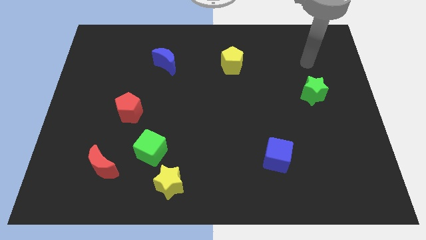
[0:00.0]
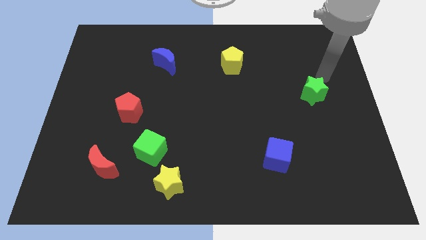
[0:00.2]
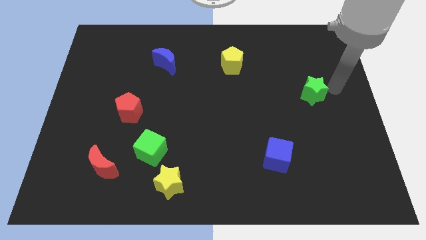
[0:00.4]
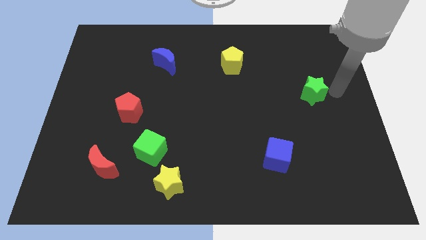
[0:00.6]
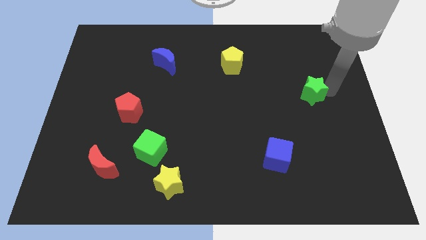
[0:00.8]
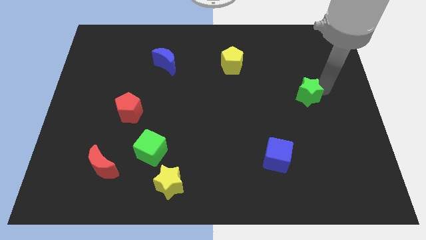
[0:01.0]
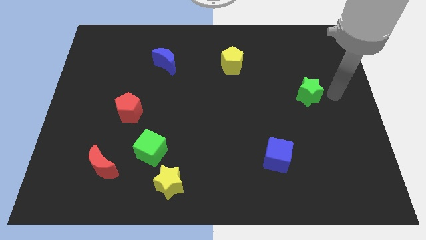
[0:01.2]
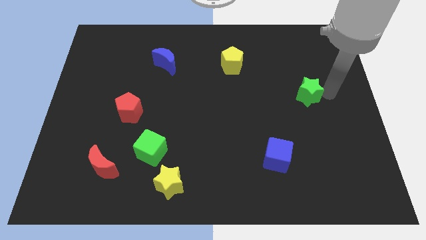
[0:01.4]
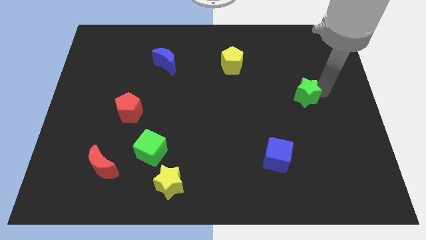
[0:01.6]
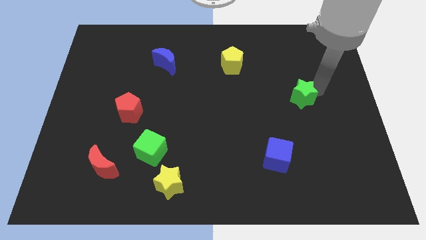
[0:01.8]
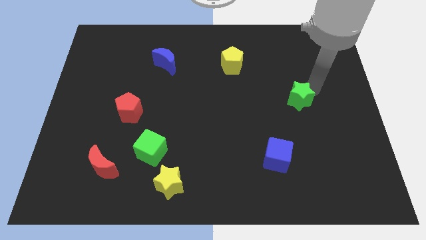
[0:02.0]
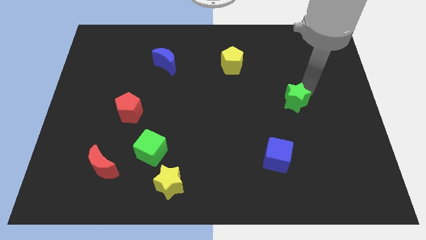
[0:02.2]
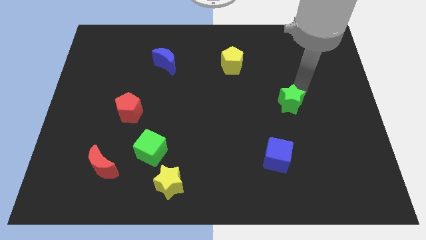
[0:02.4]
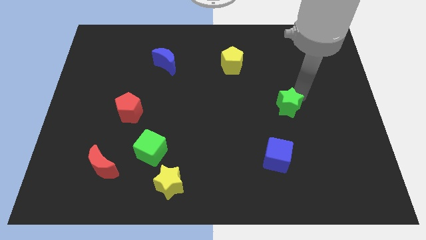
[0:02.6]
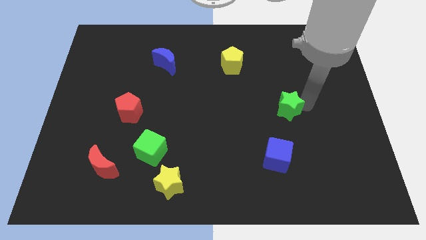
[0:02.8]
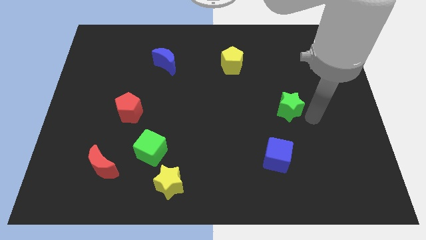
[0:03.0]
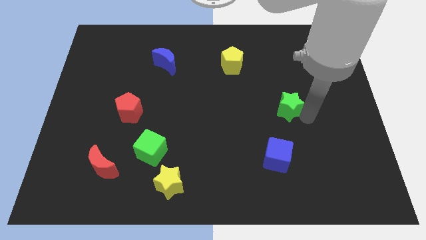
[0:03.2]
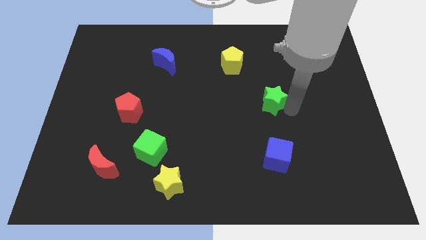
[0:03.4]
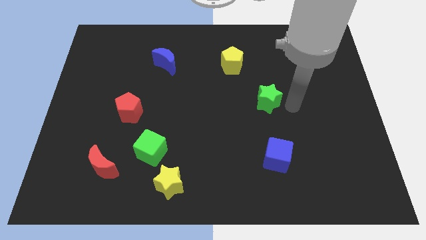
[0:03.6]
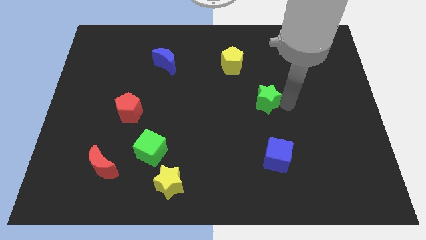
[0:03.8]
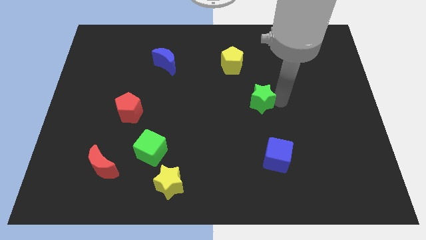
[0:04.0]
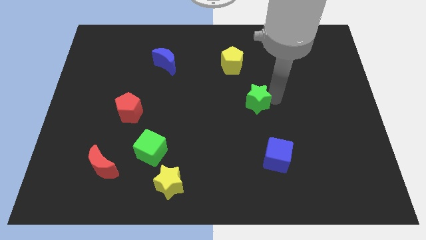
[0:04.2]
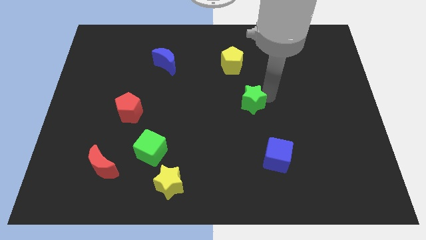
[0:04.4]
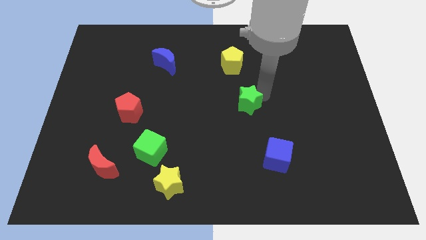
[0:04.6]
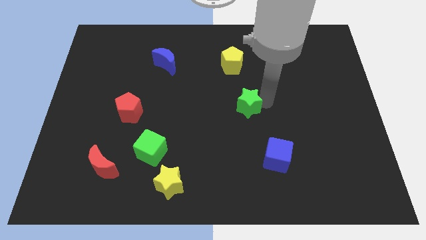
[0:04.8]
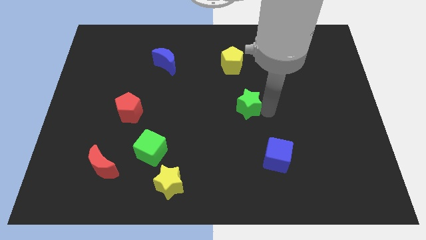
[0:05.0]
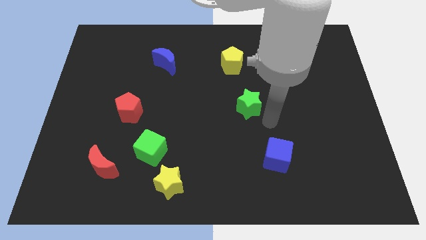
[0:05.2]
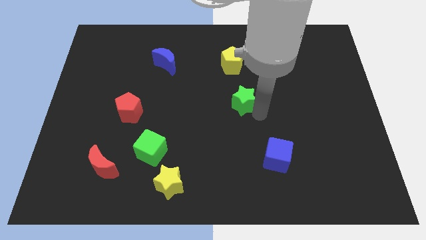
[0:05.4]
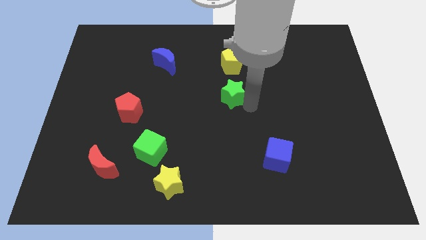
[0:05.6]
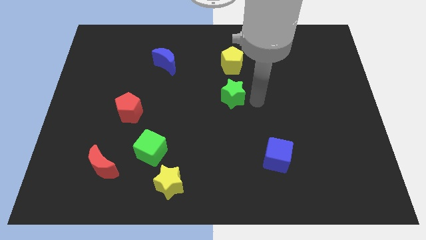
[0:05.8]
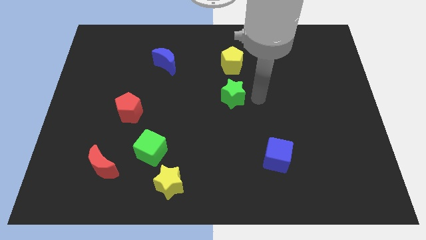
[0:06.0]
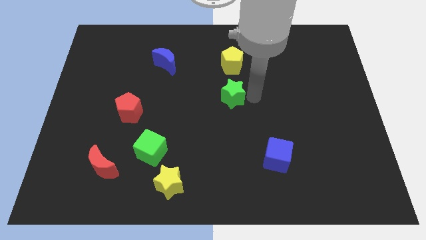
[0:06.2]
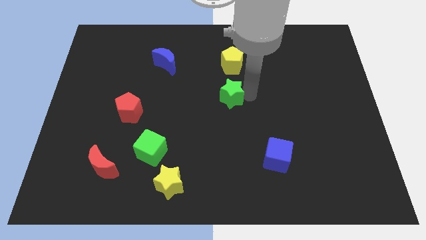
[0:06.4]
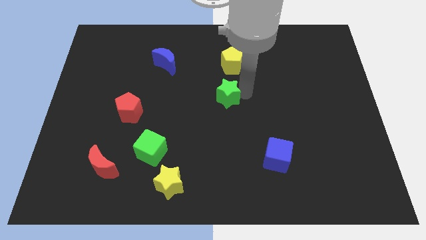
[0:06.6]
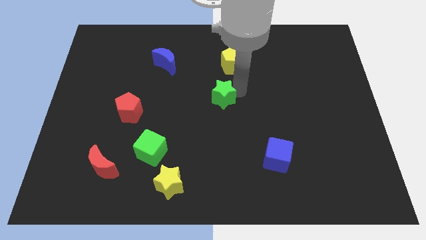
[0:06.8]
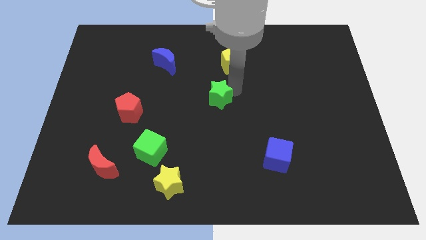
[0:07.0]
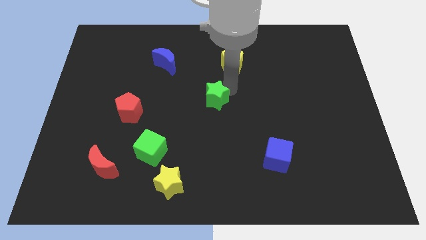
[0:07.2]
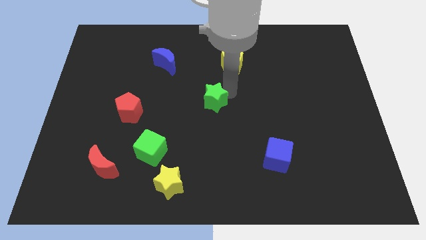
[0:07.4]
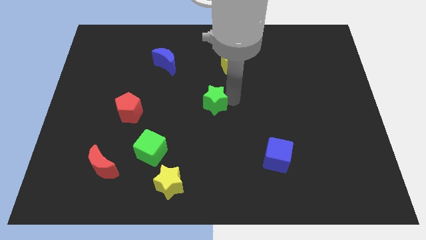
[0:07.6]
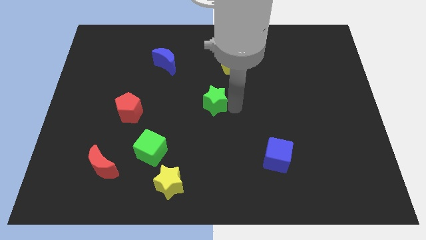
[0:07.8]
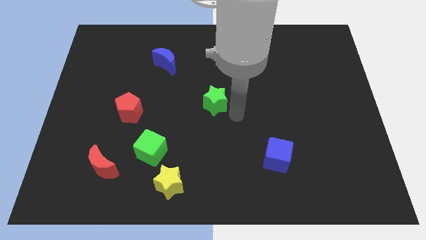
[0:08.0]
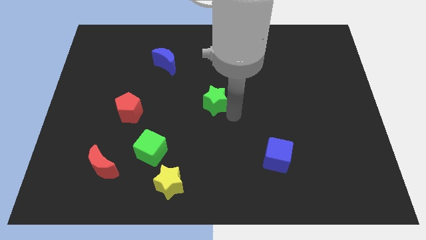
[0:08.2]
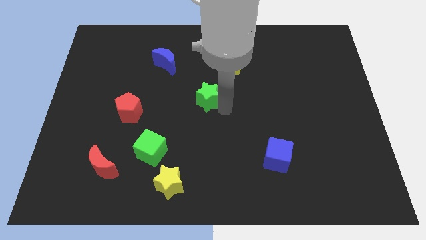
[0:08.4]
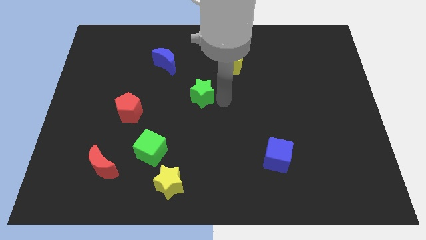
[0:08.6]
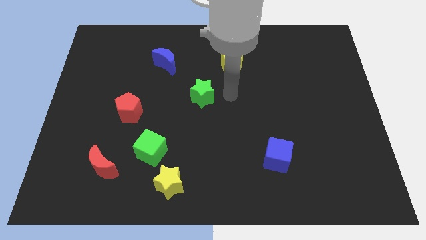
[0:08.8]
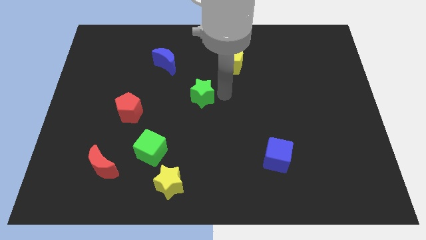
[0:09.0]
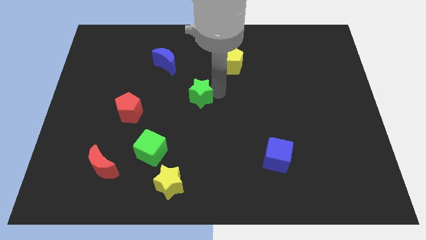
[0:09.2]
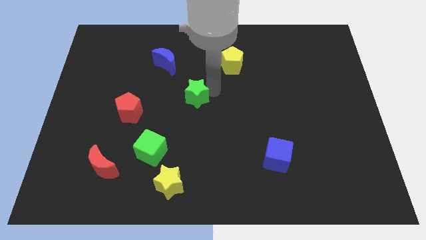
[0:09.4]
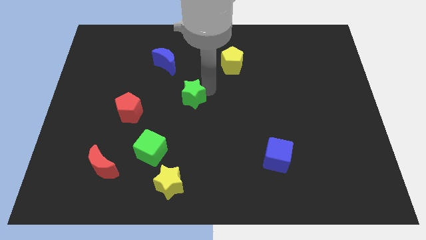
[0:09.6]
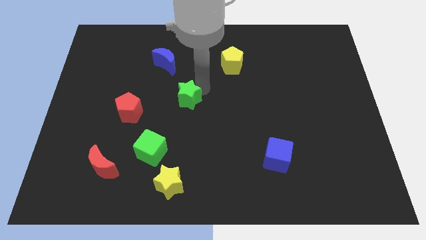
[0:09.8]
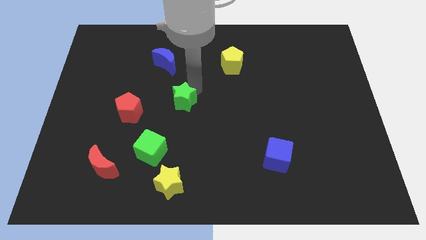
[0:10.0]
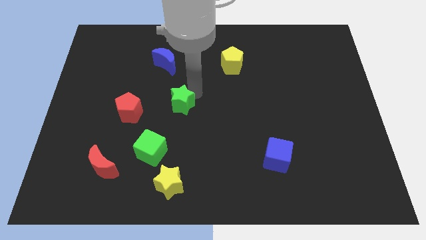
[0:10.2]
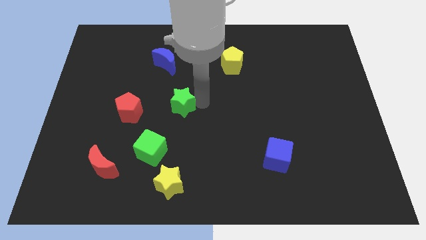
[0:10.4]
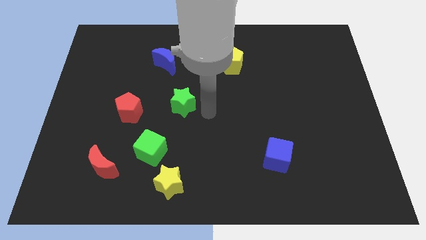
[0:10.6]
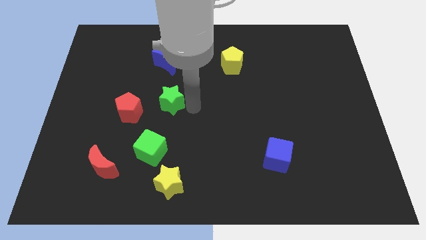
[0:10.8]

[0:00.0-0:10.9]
move the green star diagonally up and to the right of the red pentagon

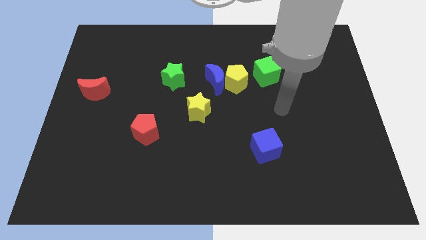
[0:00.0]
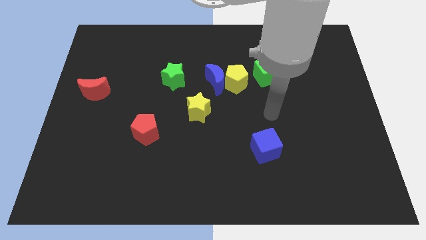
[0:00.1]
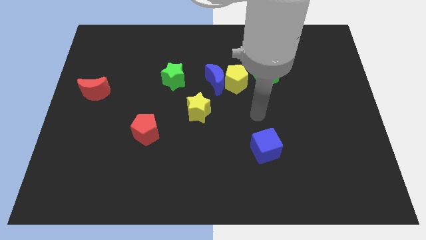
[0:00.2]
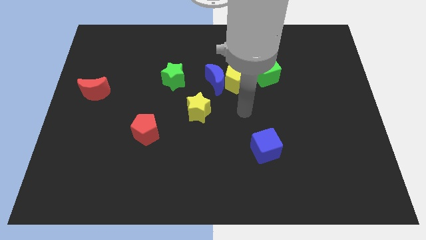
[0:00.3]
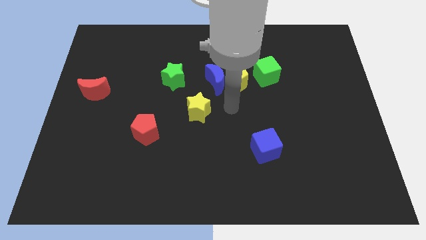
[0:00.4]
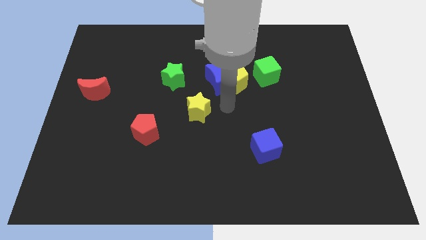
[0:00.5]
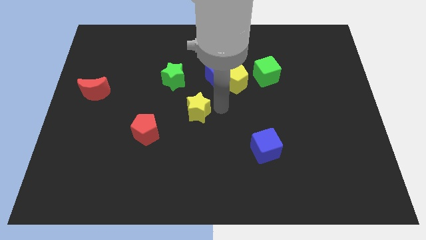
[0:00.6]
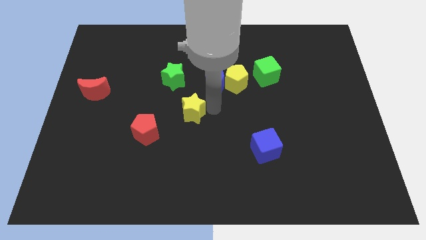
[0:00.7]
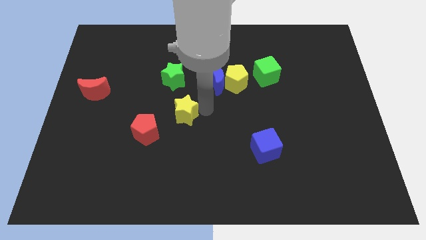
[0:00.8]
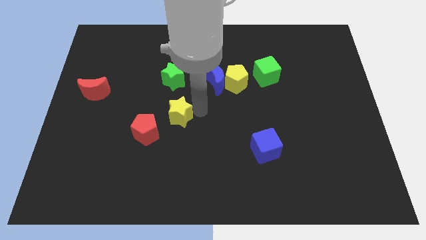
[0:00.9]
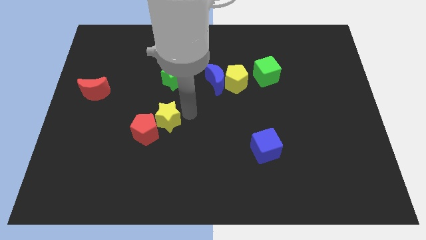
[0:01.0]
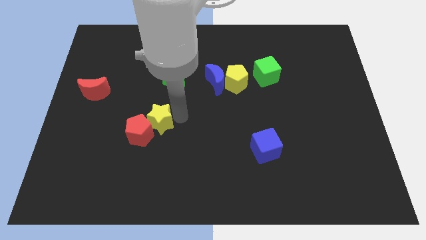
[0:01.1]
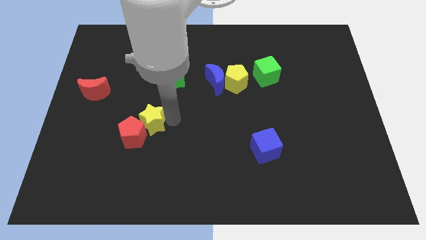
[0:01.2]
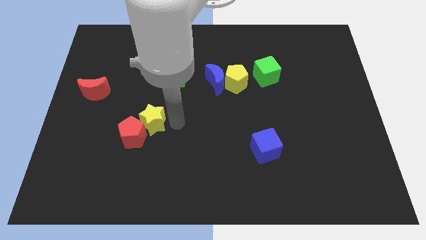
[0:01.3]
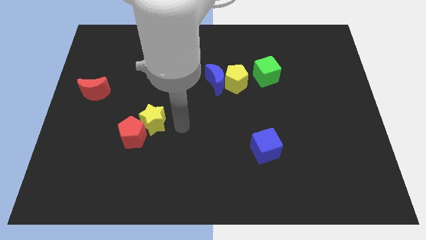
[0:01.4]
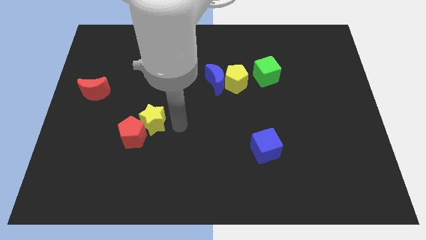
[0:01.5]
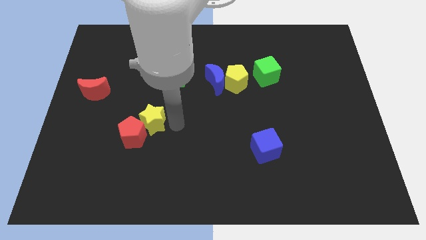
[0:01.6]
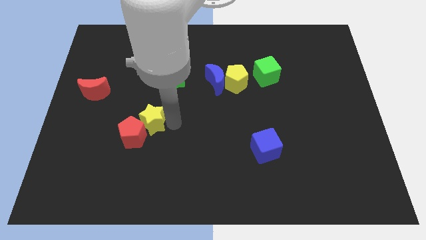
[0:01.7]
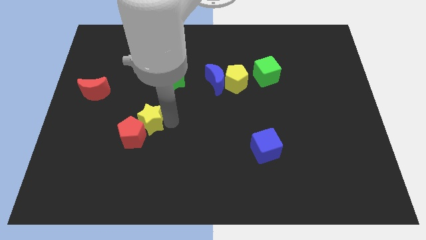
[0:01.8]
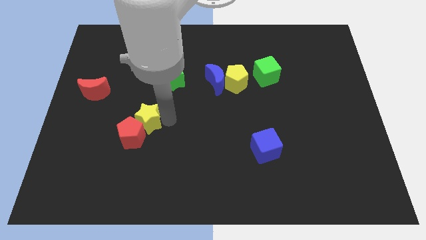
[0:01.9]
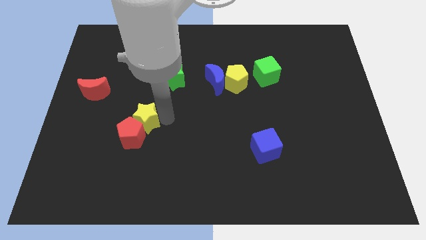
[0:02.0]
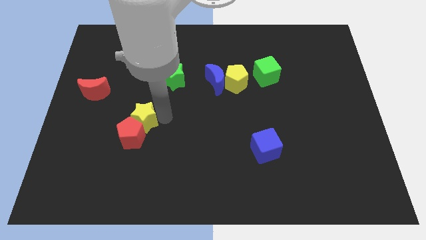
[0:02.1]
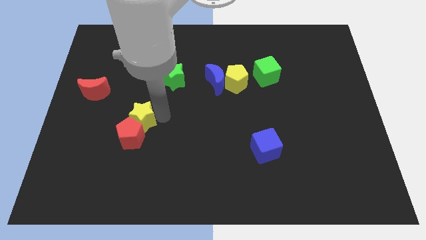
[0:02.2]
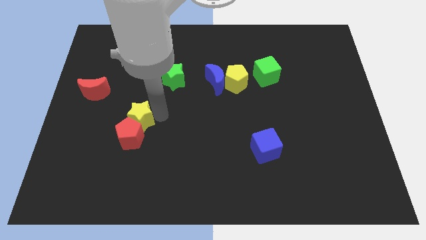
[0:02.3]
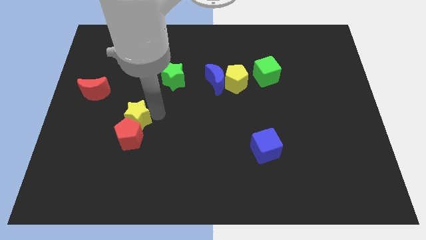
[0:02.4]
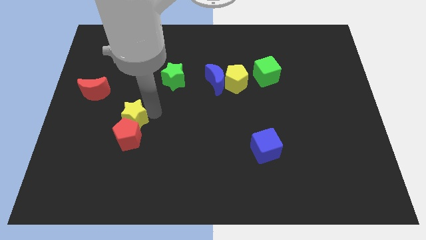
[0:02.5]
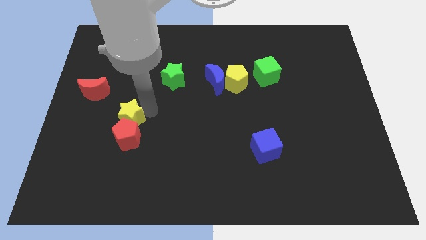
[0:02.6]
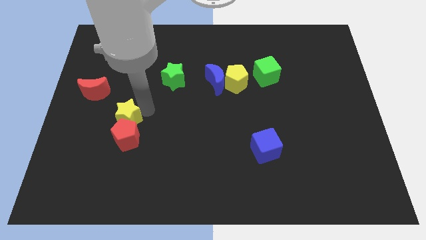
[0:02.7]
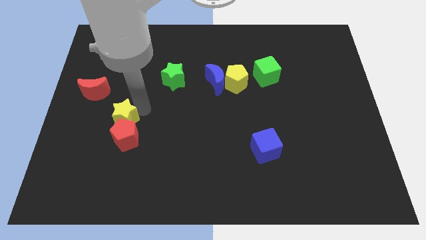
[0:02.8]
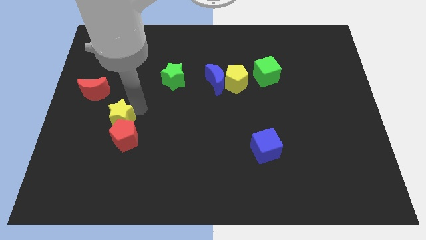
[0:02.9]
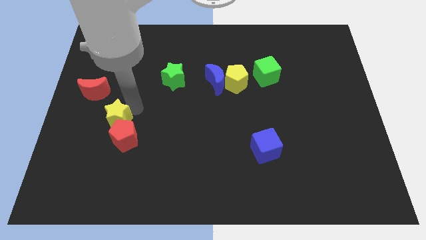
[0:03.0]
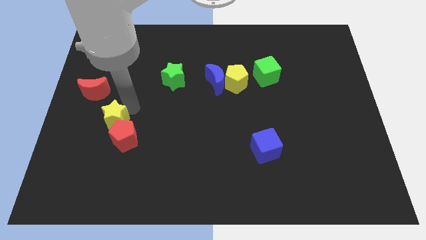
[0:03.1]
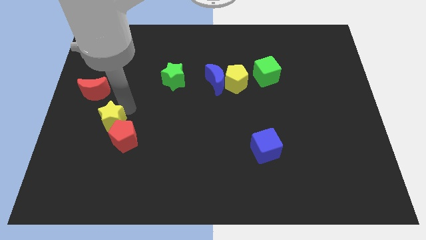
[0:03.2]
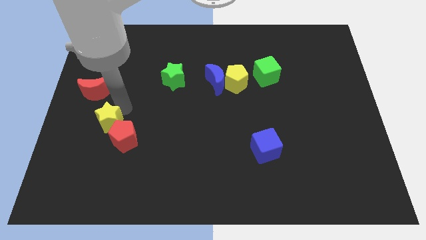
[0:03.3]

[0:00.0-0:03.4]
put the yellow star to the left side of the red pentagon
